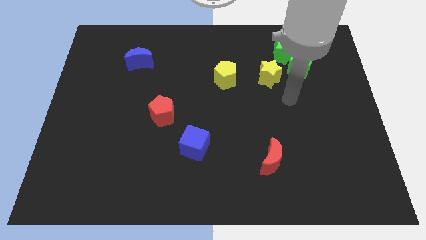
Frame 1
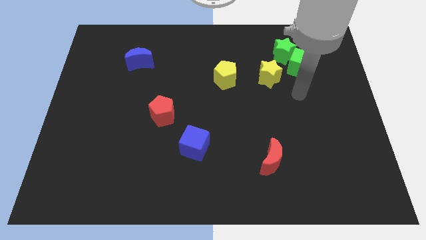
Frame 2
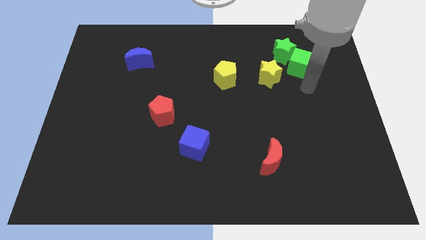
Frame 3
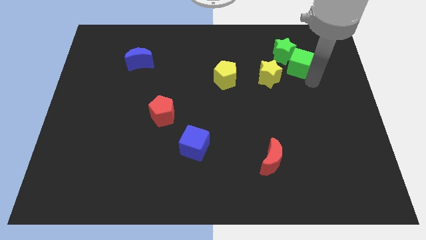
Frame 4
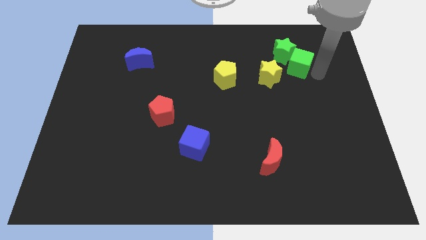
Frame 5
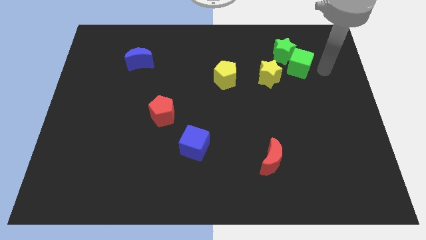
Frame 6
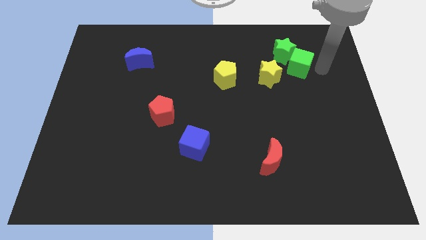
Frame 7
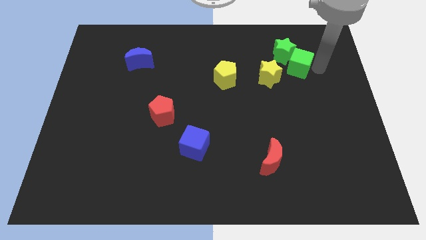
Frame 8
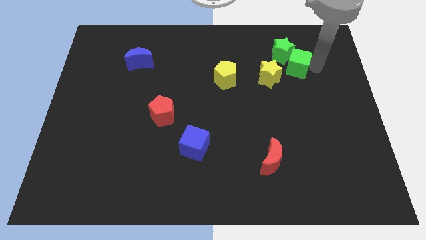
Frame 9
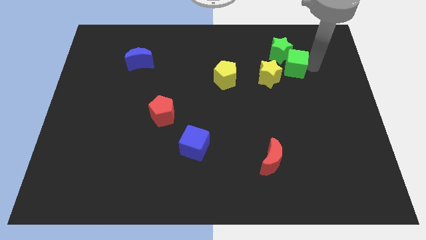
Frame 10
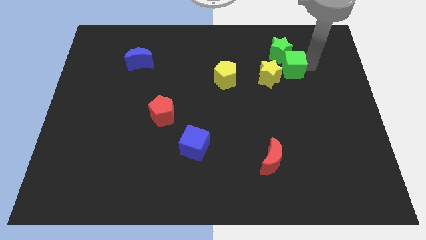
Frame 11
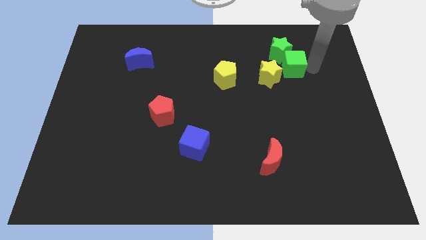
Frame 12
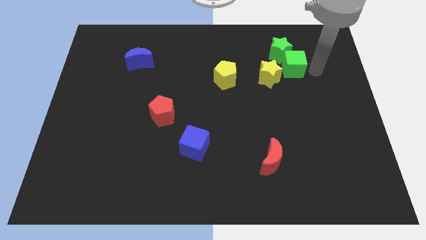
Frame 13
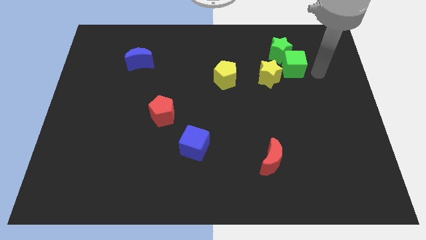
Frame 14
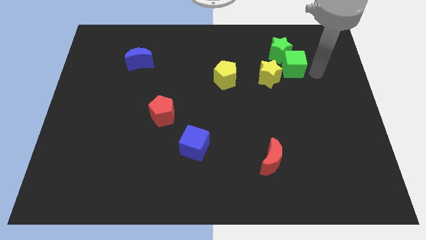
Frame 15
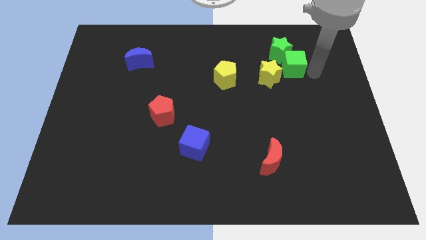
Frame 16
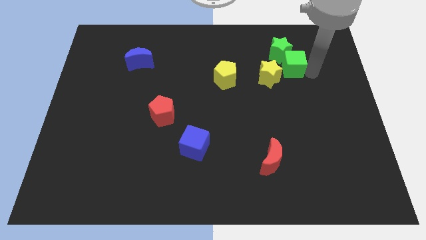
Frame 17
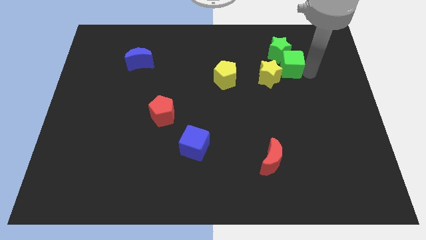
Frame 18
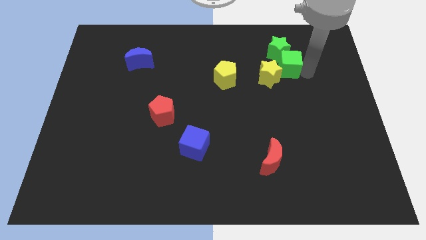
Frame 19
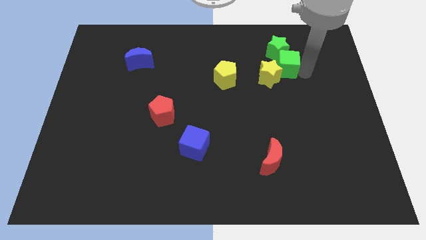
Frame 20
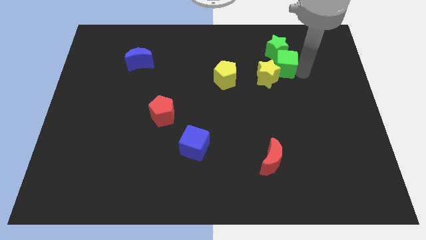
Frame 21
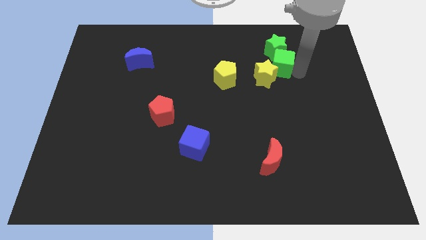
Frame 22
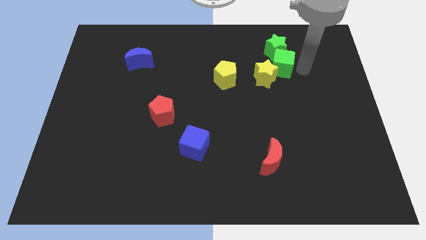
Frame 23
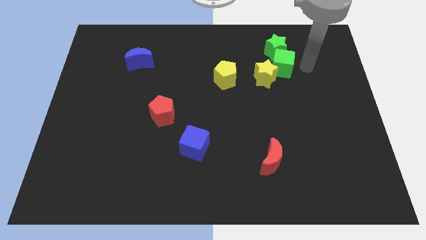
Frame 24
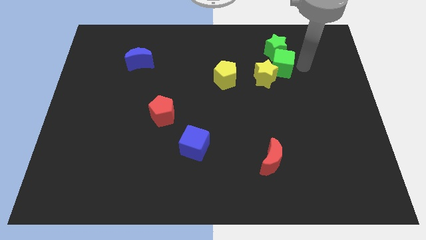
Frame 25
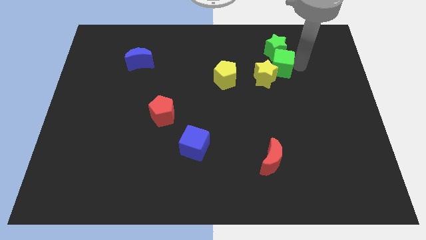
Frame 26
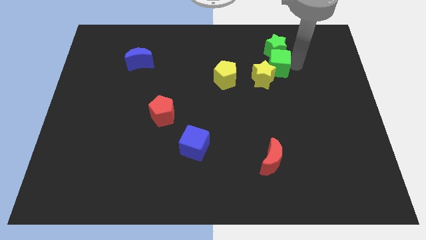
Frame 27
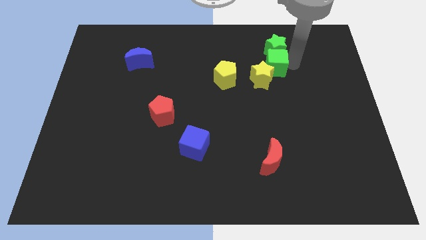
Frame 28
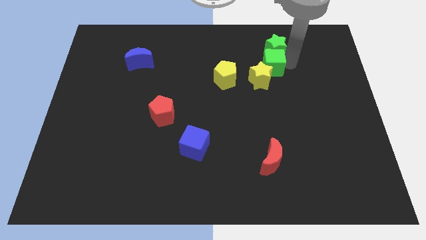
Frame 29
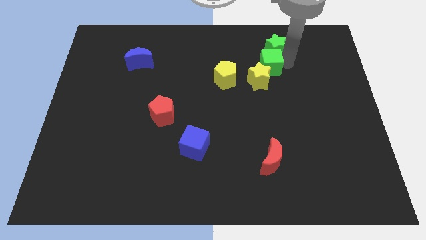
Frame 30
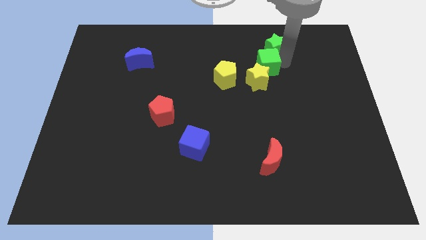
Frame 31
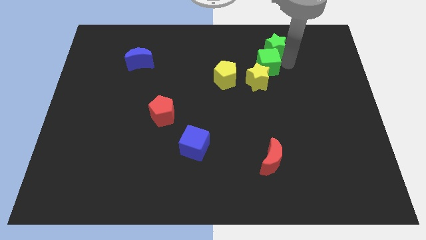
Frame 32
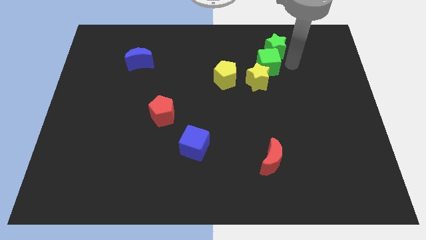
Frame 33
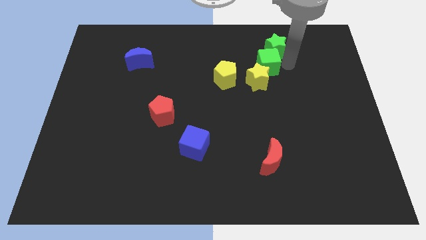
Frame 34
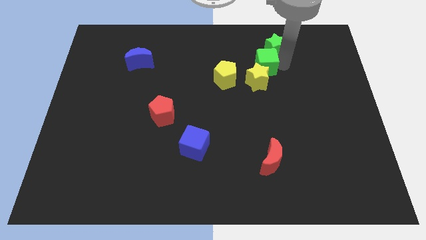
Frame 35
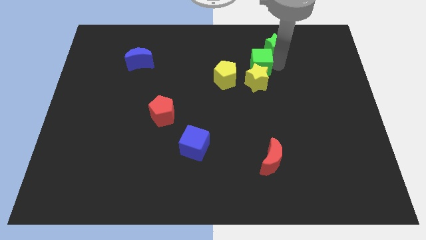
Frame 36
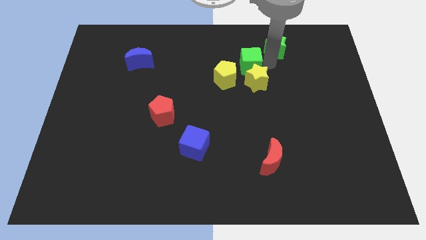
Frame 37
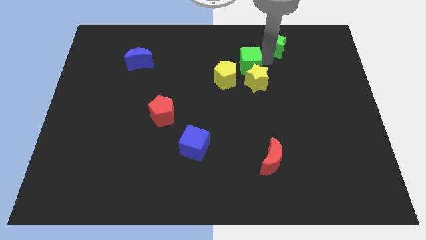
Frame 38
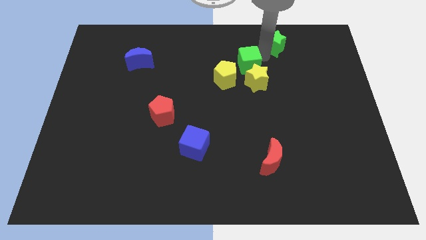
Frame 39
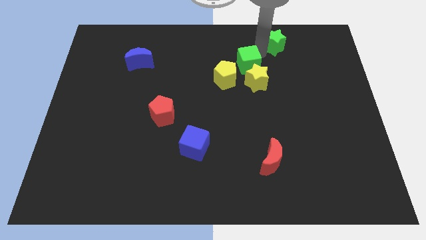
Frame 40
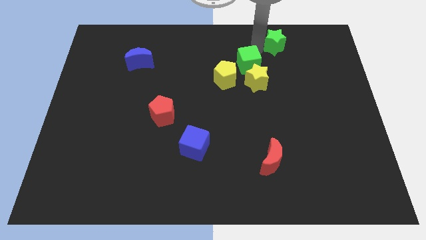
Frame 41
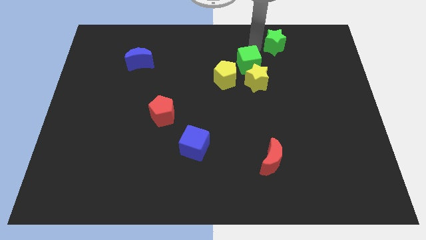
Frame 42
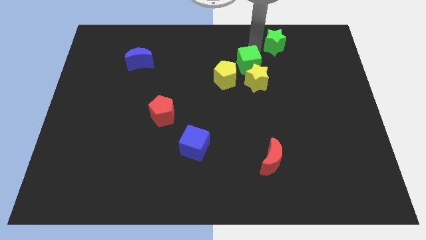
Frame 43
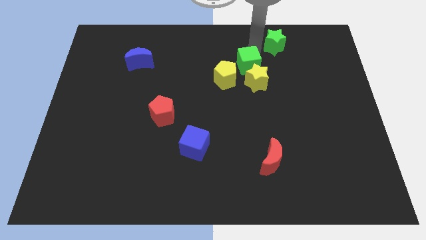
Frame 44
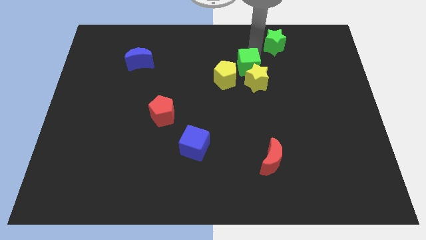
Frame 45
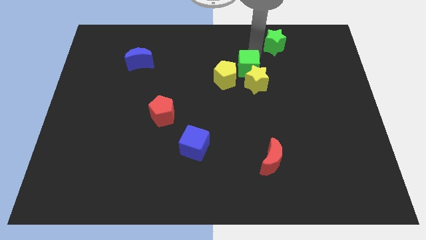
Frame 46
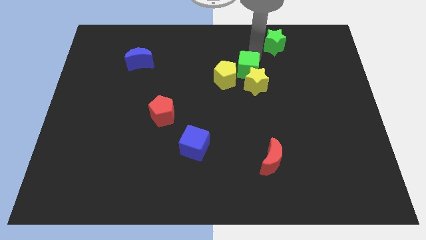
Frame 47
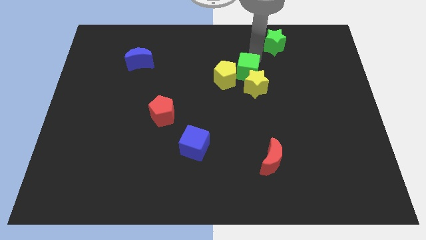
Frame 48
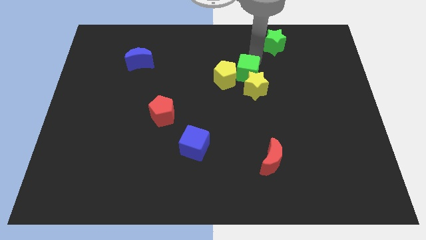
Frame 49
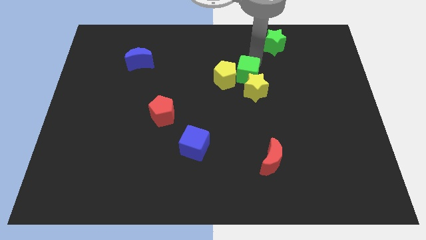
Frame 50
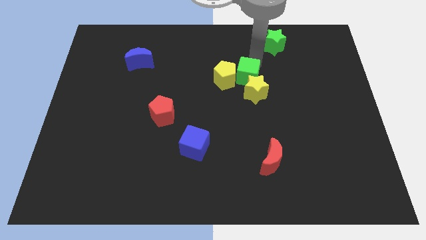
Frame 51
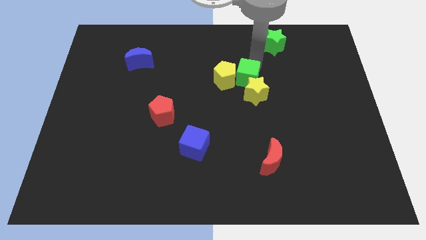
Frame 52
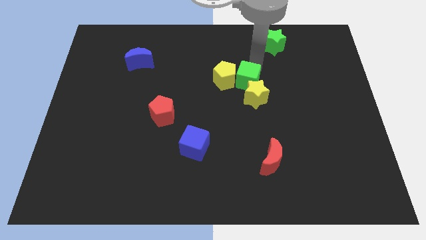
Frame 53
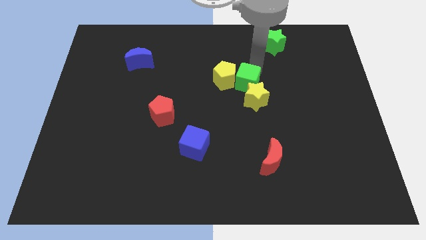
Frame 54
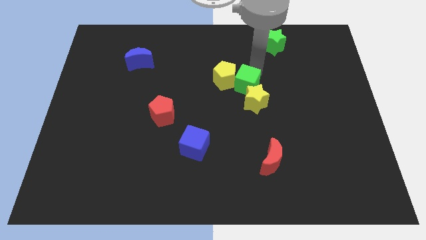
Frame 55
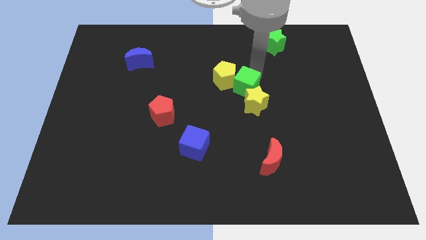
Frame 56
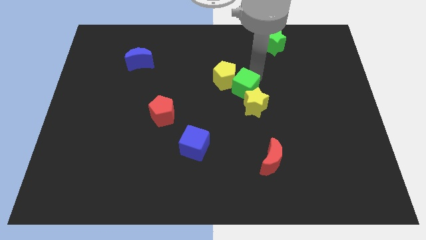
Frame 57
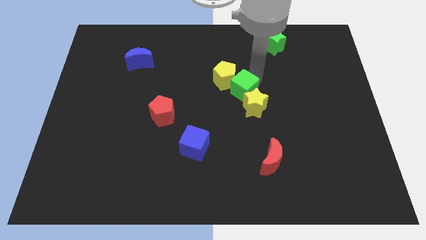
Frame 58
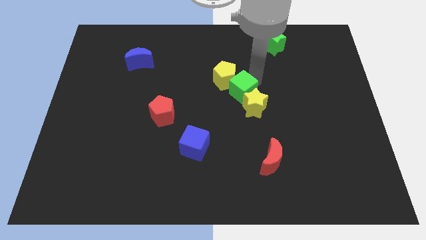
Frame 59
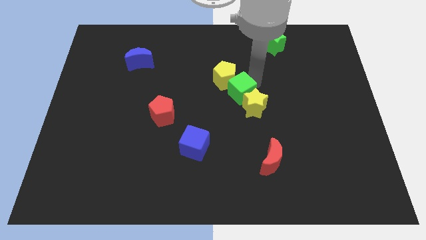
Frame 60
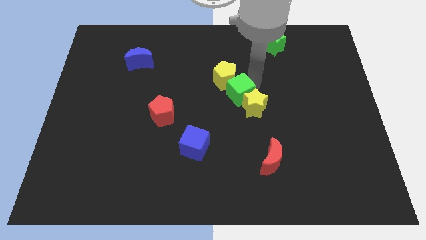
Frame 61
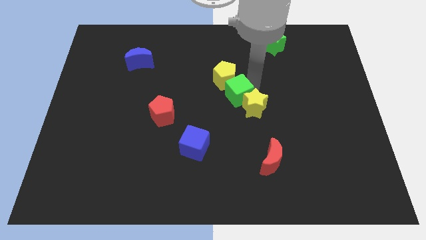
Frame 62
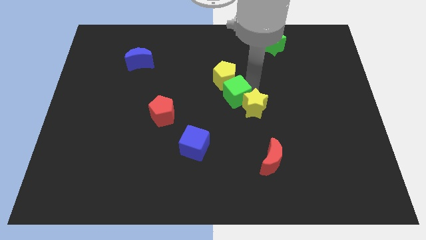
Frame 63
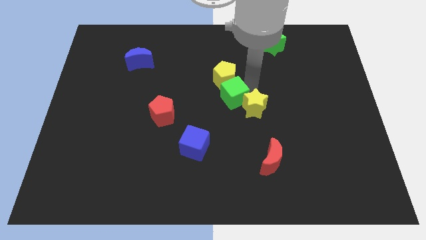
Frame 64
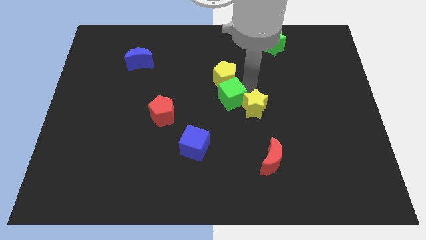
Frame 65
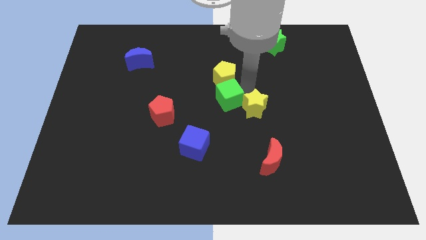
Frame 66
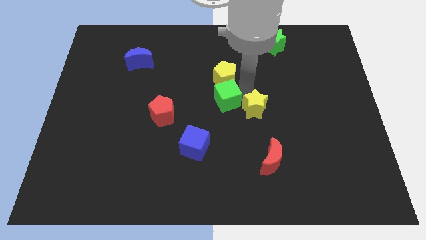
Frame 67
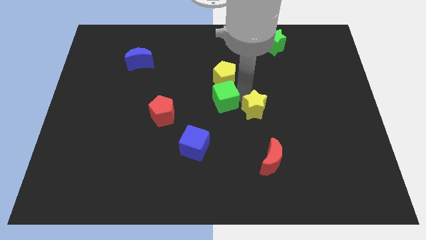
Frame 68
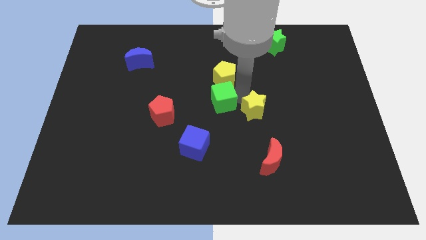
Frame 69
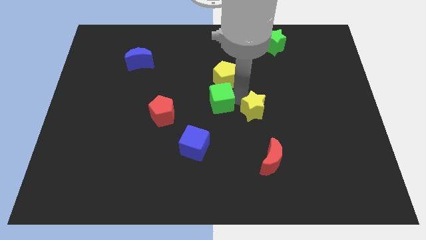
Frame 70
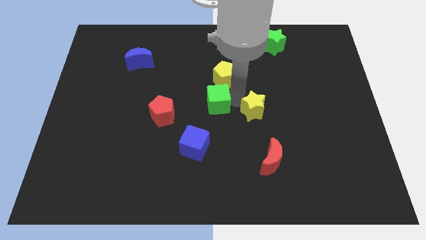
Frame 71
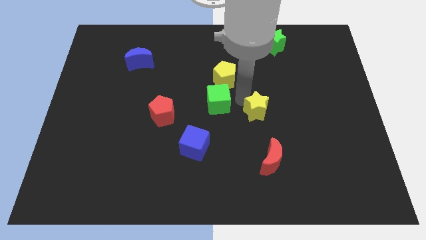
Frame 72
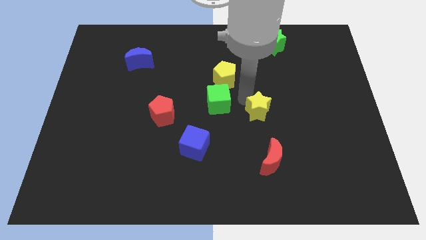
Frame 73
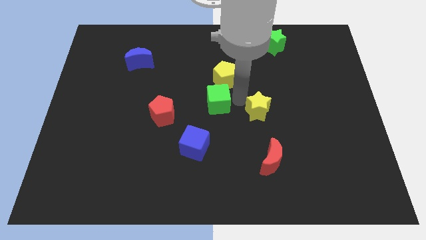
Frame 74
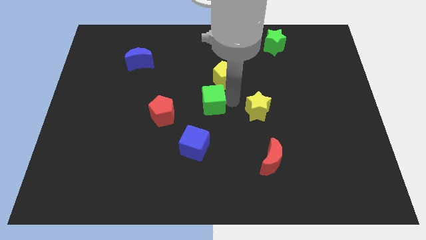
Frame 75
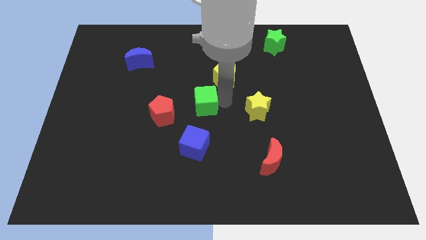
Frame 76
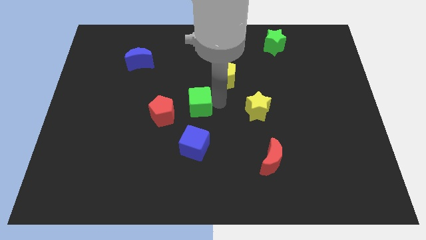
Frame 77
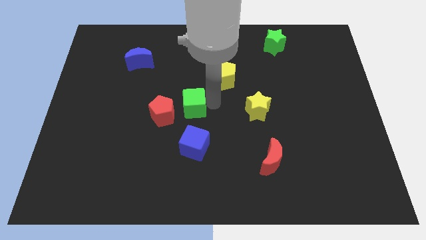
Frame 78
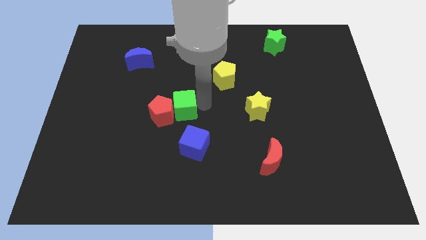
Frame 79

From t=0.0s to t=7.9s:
put the green cube towards the red pentagon
